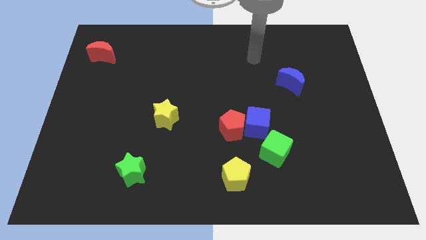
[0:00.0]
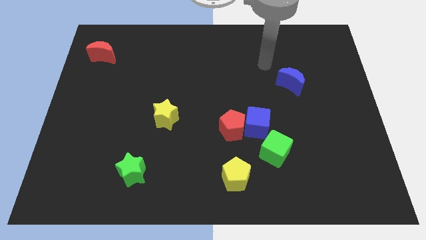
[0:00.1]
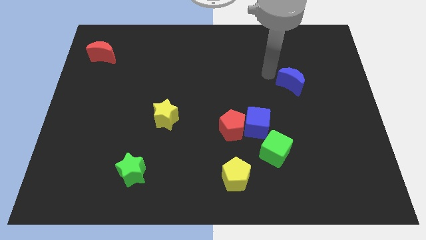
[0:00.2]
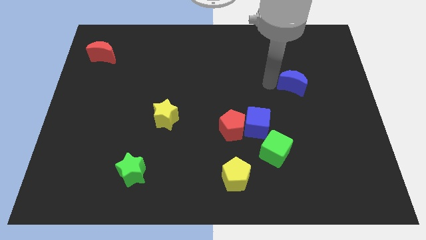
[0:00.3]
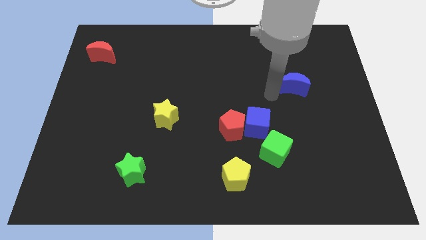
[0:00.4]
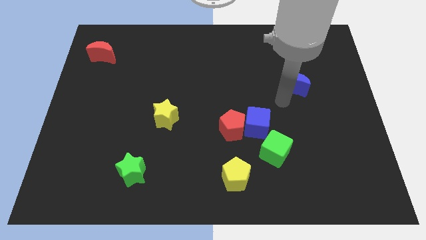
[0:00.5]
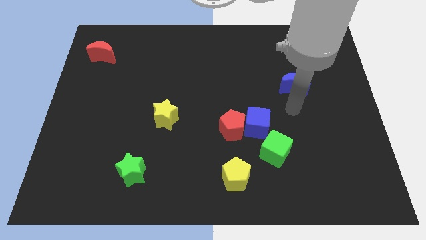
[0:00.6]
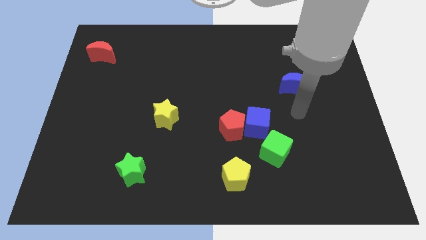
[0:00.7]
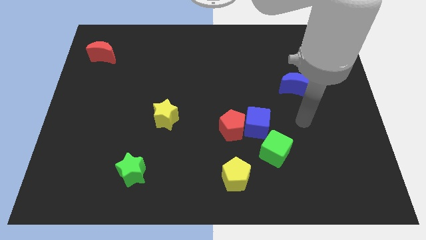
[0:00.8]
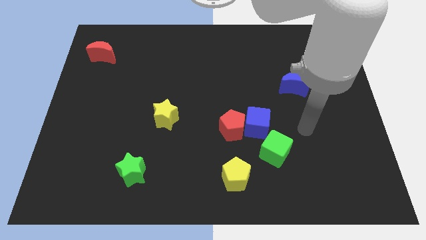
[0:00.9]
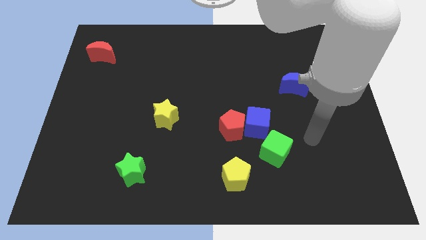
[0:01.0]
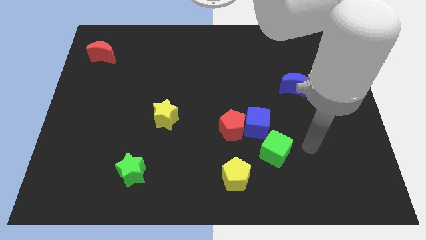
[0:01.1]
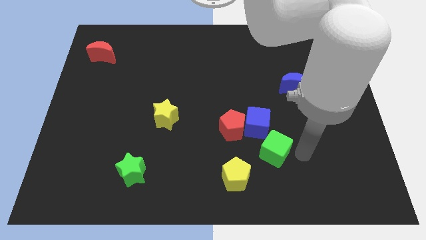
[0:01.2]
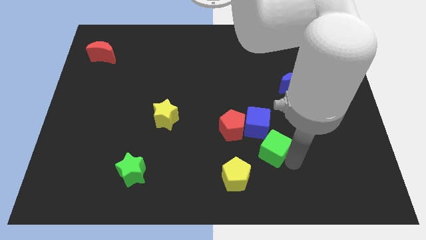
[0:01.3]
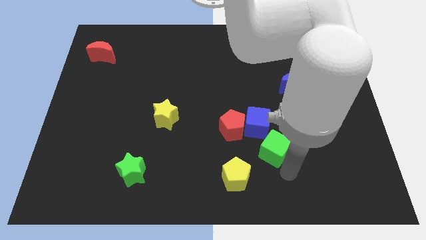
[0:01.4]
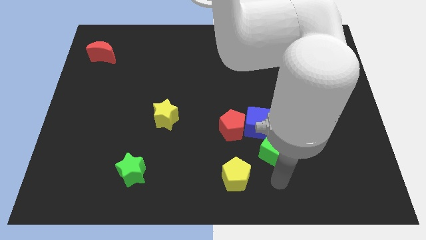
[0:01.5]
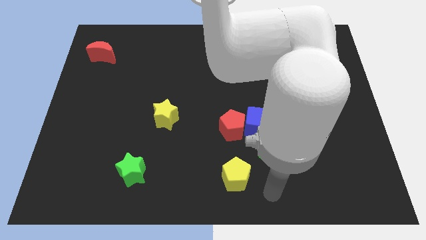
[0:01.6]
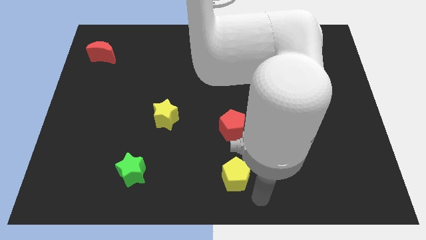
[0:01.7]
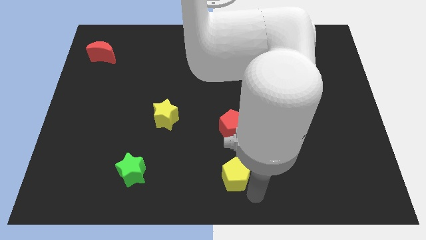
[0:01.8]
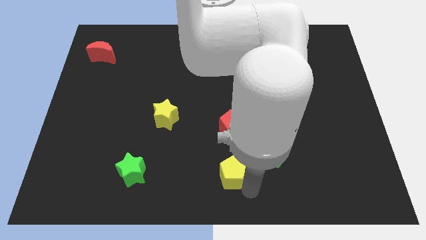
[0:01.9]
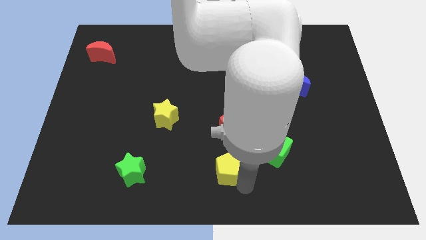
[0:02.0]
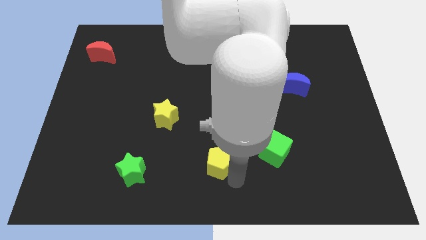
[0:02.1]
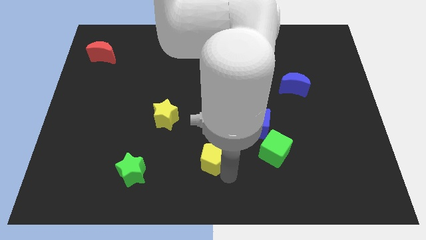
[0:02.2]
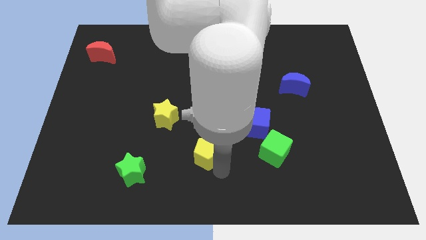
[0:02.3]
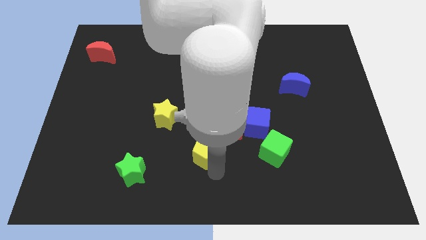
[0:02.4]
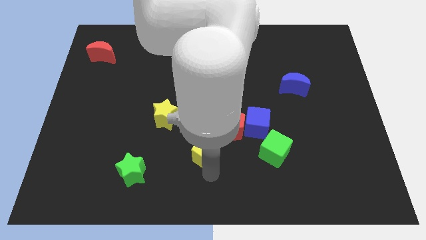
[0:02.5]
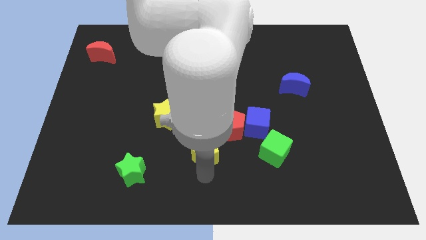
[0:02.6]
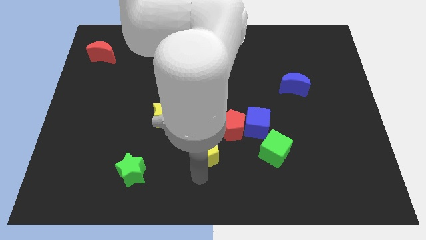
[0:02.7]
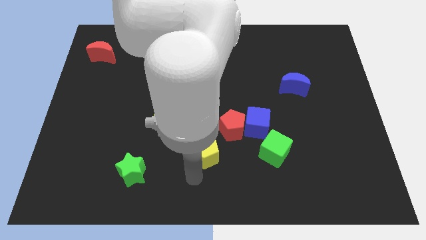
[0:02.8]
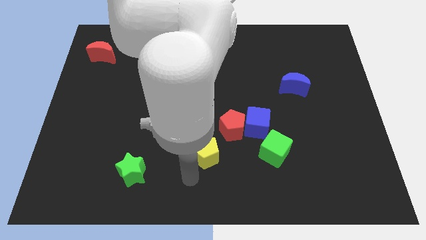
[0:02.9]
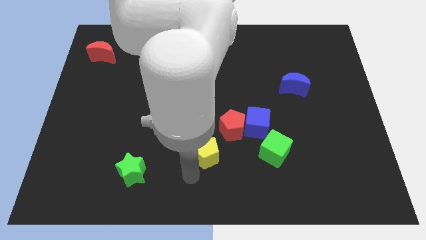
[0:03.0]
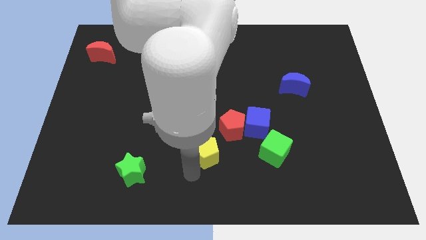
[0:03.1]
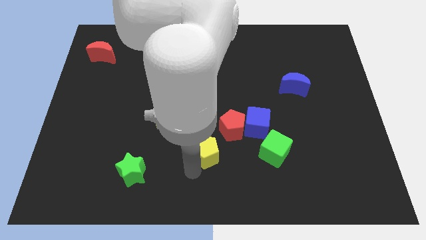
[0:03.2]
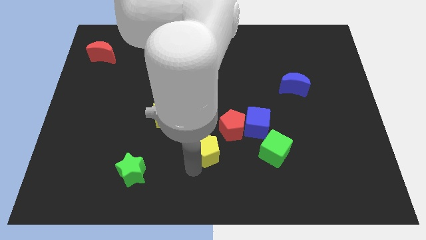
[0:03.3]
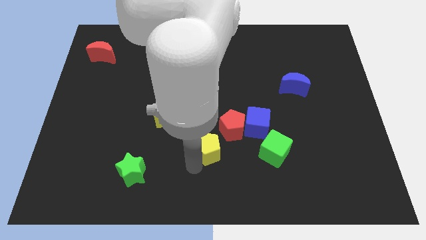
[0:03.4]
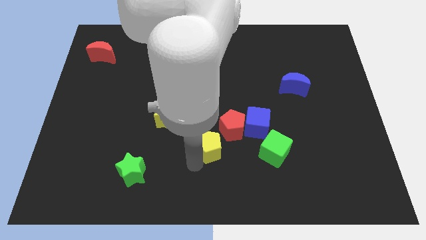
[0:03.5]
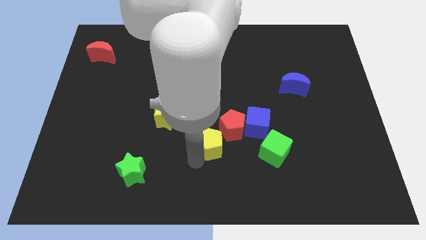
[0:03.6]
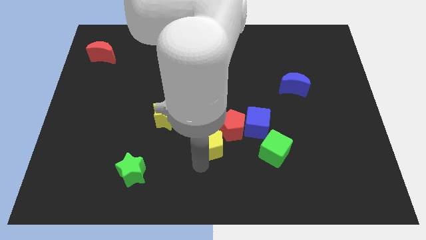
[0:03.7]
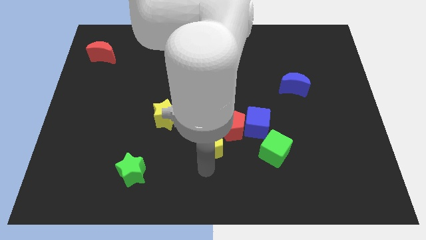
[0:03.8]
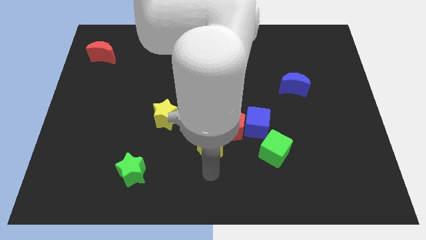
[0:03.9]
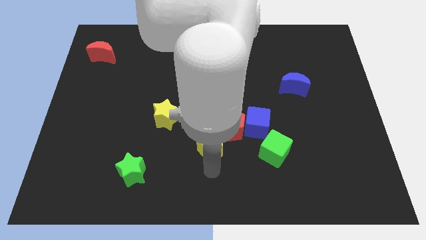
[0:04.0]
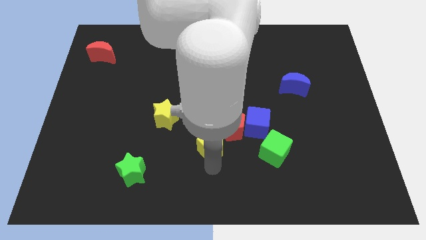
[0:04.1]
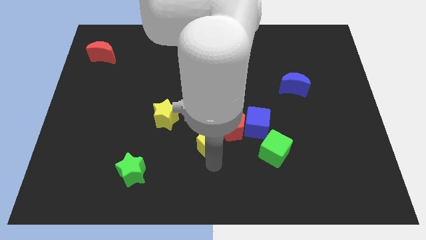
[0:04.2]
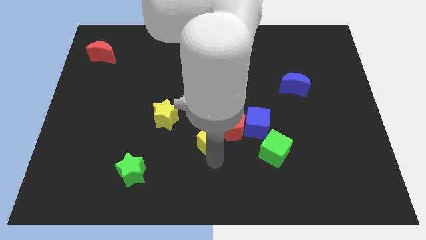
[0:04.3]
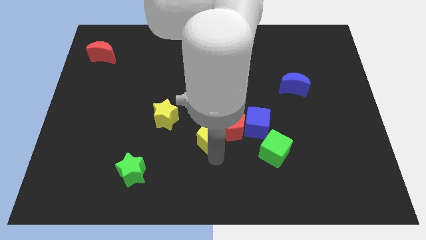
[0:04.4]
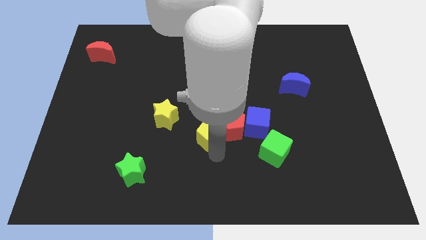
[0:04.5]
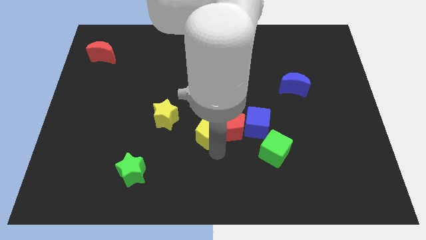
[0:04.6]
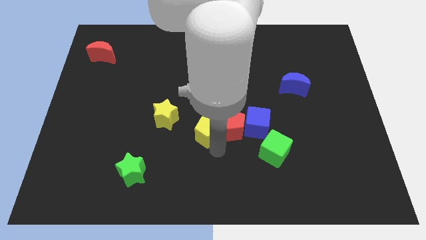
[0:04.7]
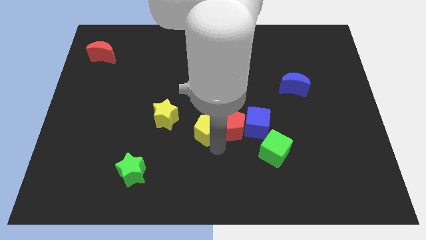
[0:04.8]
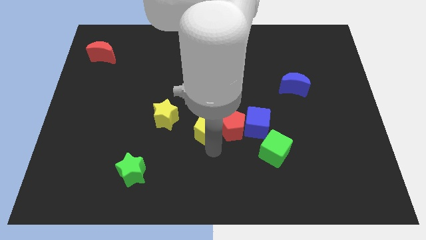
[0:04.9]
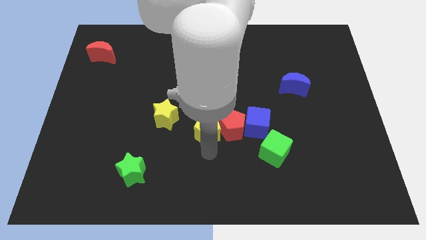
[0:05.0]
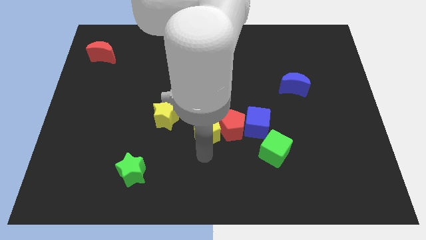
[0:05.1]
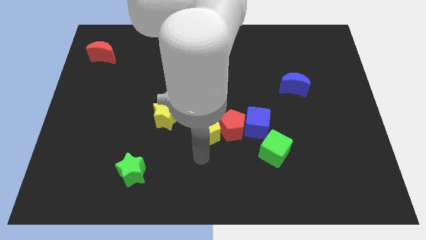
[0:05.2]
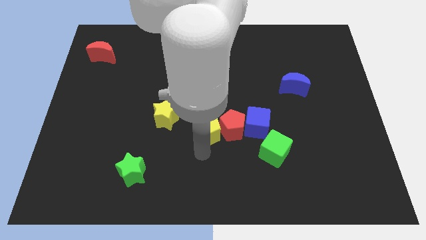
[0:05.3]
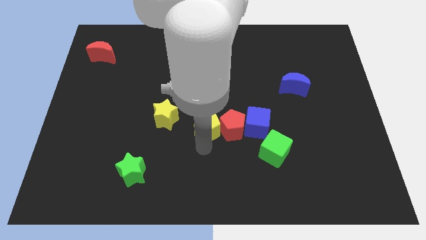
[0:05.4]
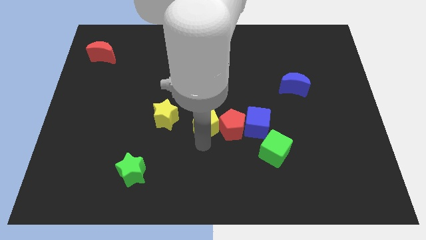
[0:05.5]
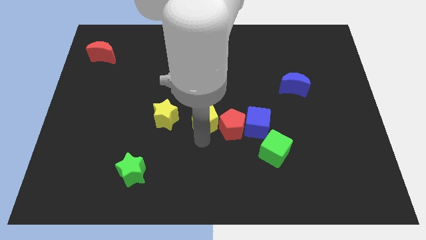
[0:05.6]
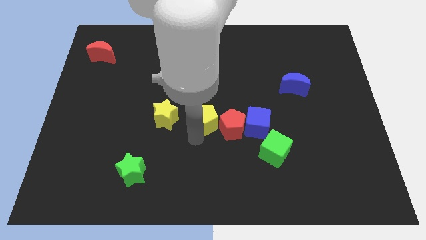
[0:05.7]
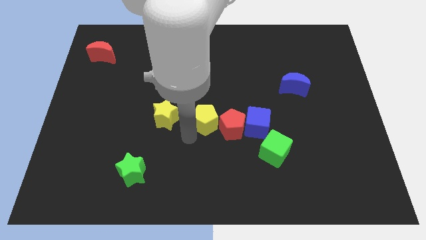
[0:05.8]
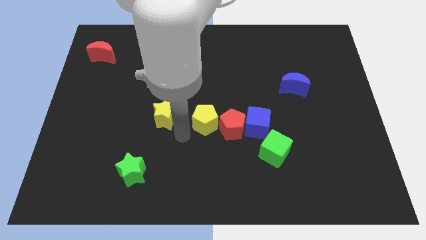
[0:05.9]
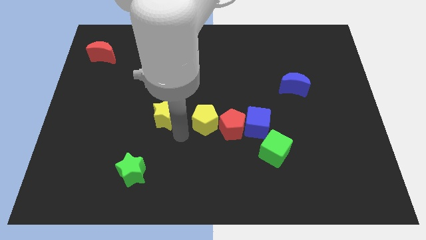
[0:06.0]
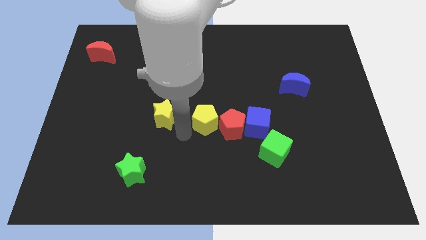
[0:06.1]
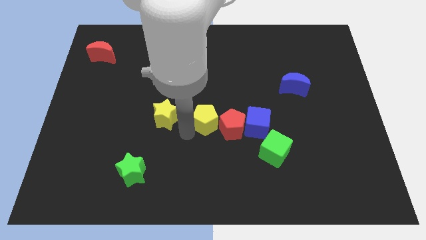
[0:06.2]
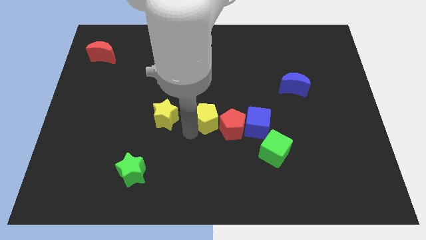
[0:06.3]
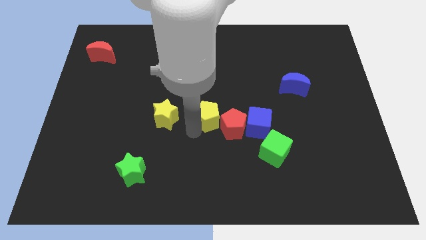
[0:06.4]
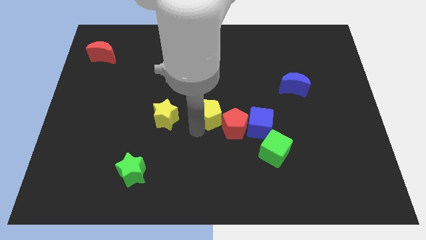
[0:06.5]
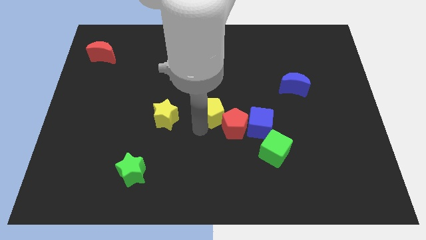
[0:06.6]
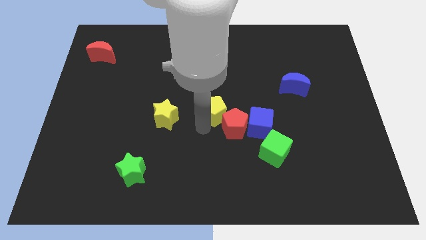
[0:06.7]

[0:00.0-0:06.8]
move the yellow pentagon to the top left side of the blue cube
